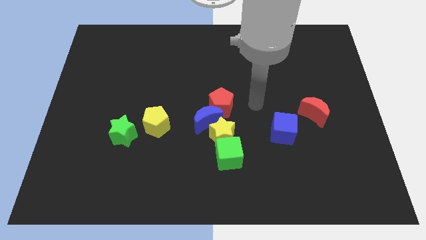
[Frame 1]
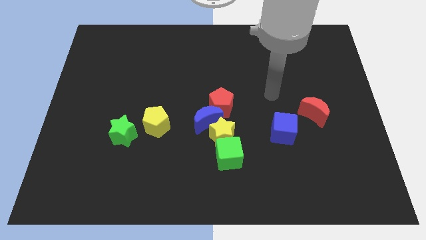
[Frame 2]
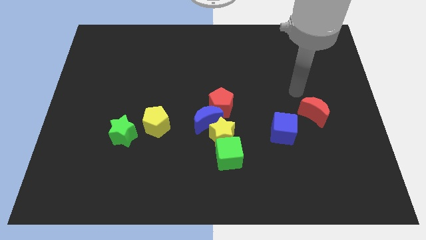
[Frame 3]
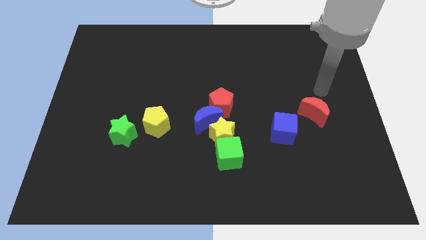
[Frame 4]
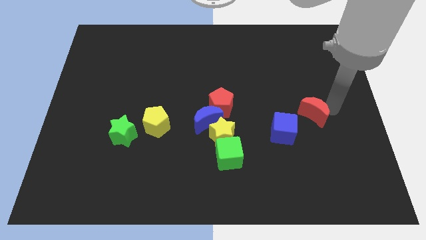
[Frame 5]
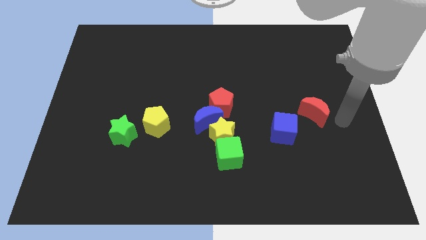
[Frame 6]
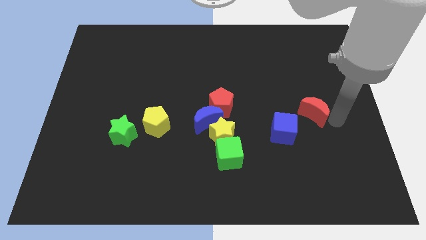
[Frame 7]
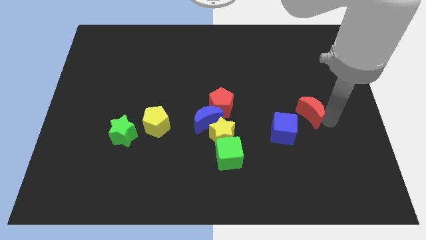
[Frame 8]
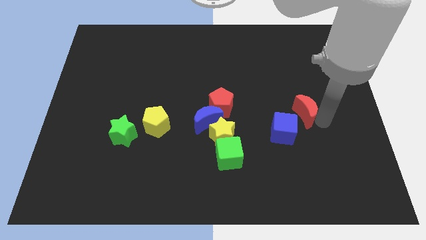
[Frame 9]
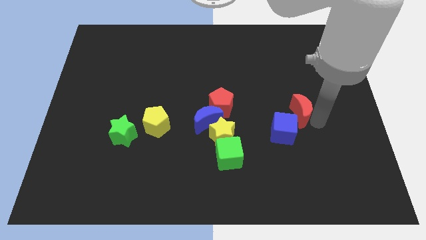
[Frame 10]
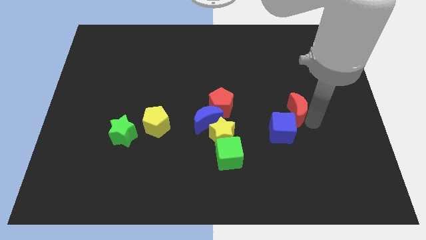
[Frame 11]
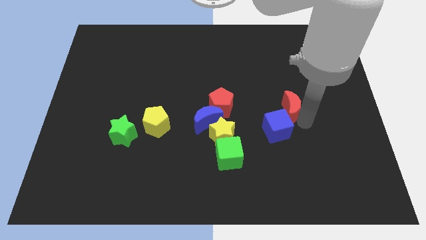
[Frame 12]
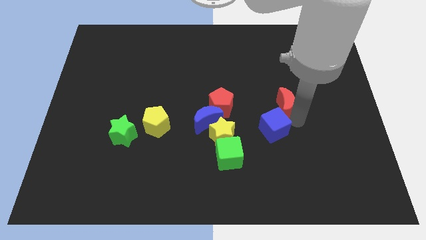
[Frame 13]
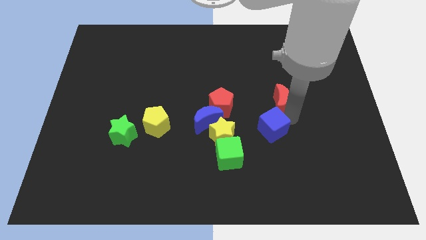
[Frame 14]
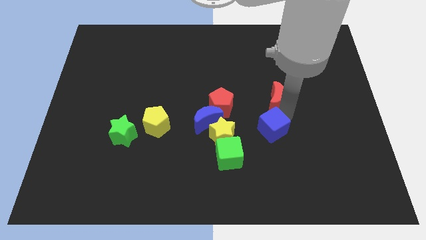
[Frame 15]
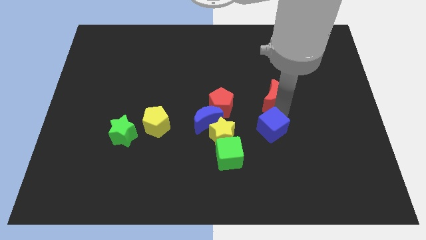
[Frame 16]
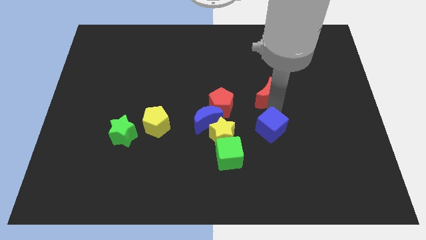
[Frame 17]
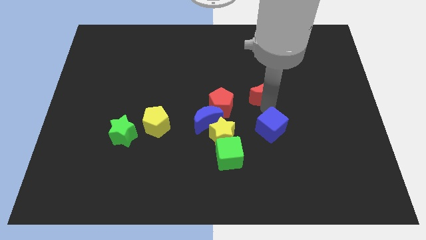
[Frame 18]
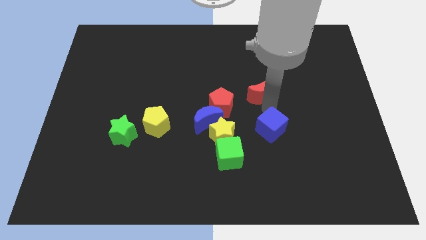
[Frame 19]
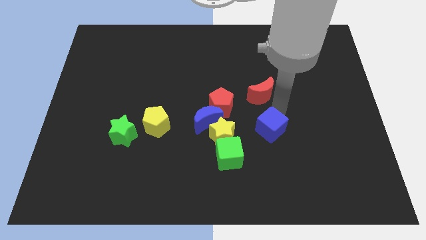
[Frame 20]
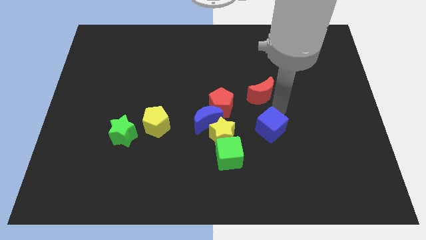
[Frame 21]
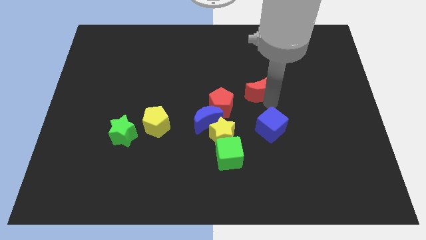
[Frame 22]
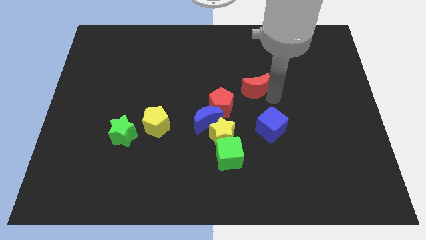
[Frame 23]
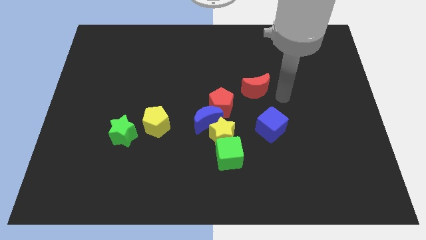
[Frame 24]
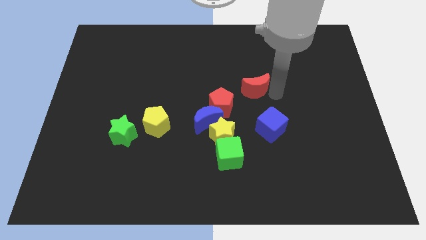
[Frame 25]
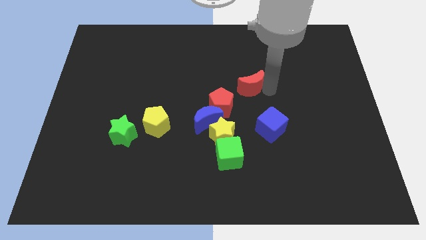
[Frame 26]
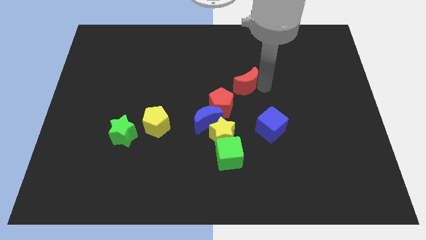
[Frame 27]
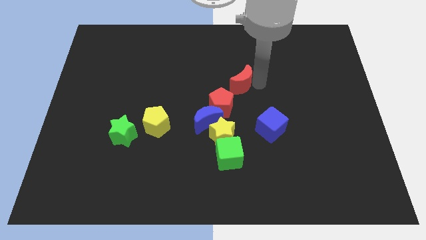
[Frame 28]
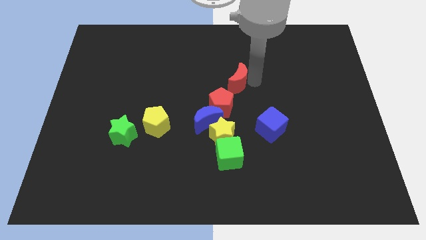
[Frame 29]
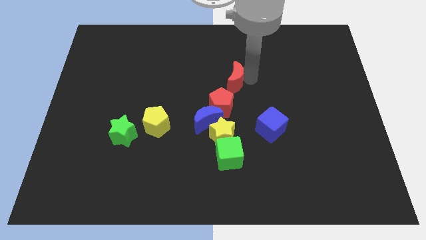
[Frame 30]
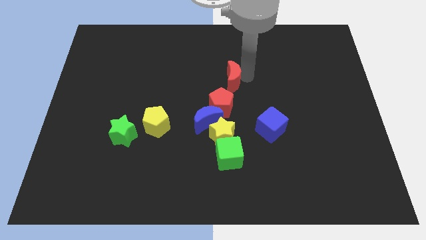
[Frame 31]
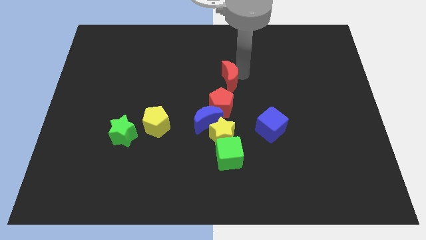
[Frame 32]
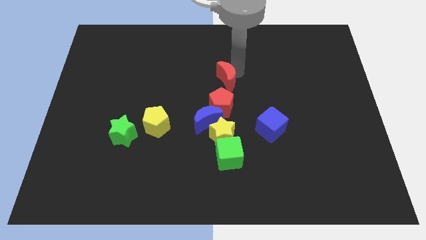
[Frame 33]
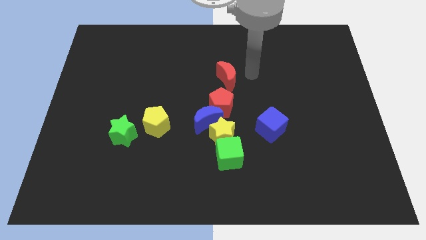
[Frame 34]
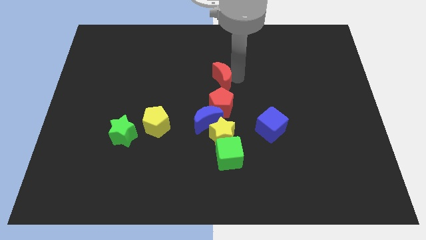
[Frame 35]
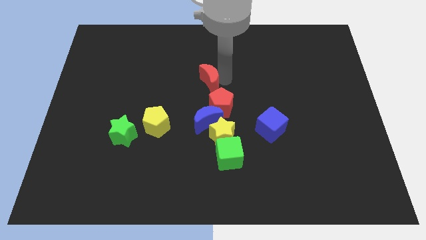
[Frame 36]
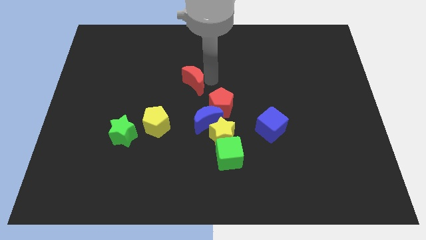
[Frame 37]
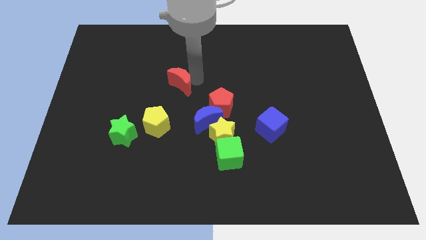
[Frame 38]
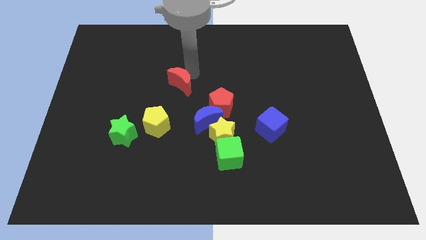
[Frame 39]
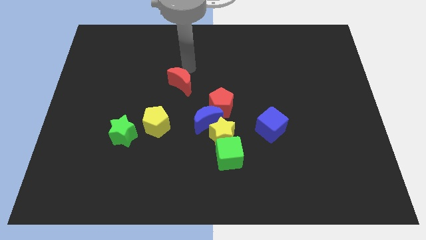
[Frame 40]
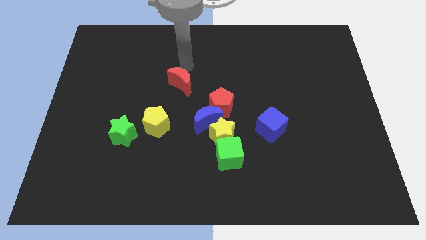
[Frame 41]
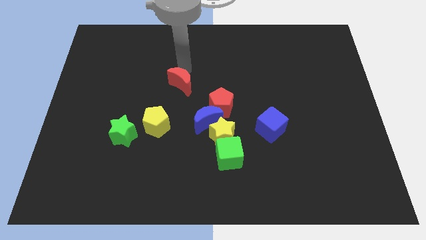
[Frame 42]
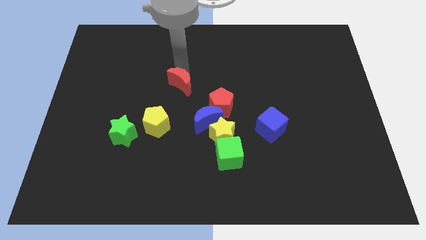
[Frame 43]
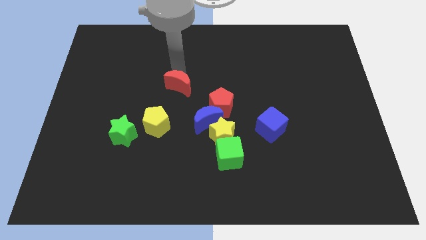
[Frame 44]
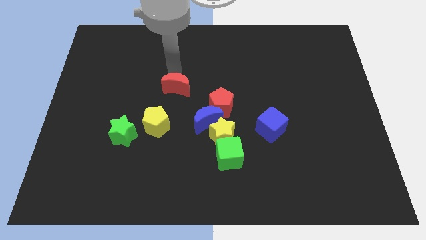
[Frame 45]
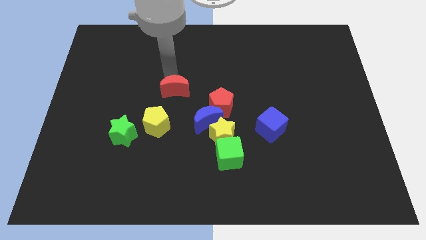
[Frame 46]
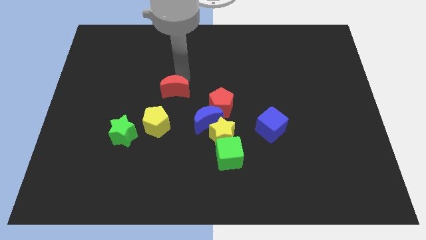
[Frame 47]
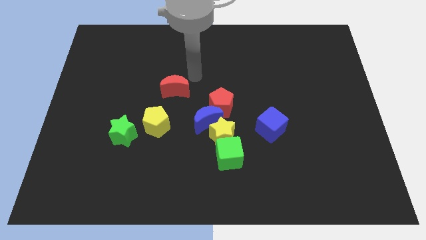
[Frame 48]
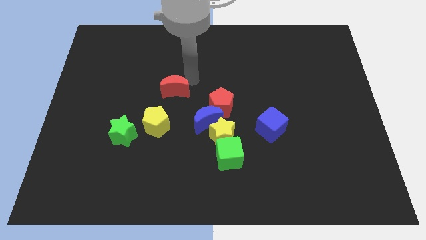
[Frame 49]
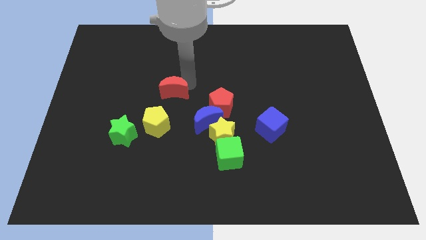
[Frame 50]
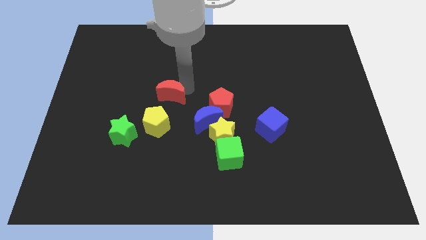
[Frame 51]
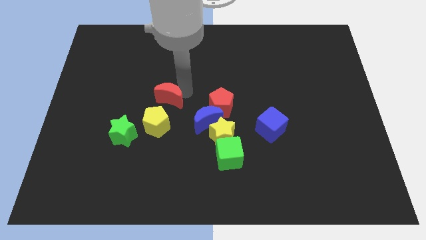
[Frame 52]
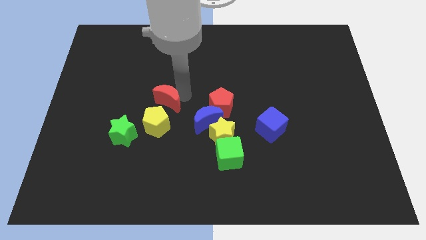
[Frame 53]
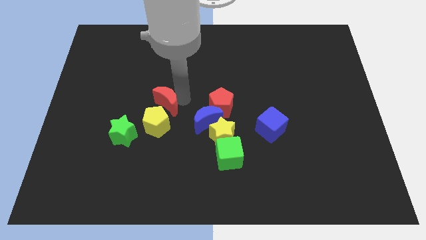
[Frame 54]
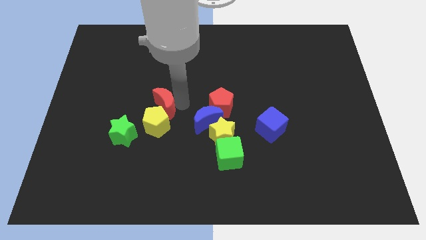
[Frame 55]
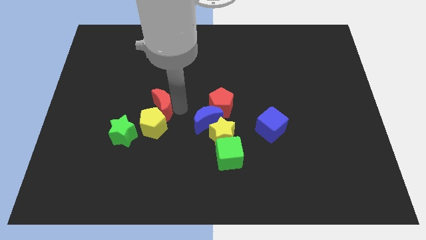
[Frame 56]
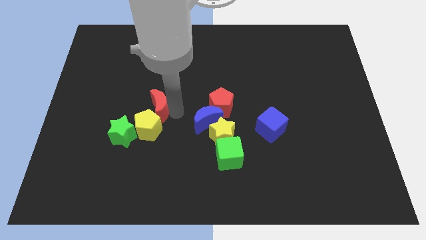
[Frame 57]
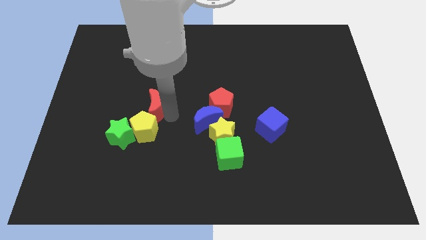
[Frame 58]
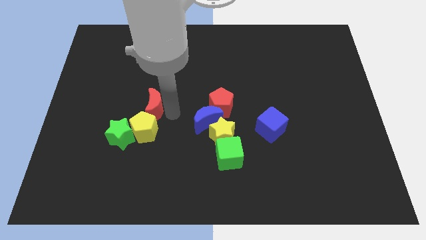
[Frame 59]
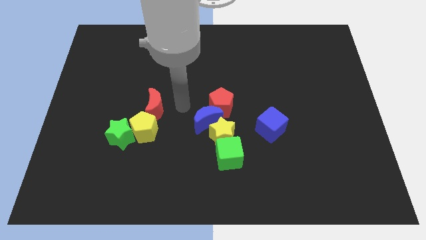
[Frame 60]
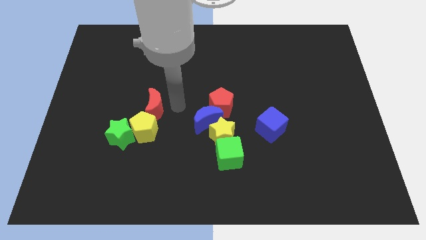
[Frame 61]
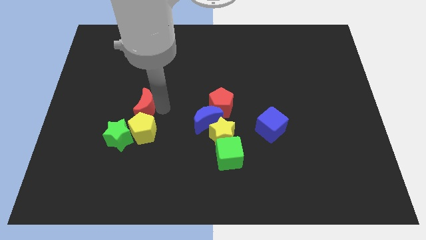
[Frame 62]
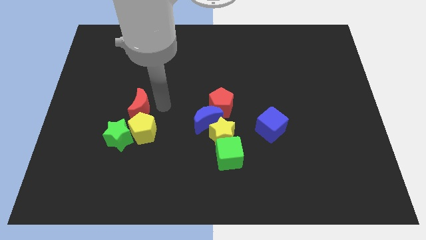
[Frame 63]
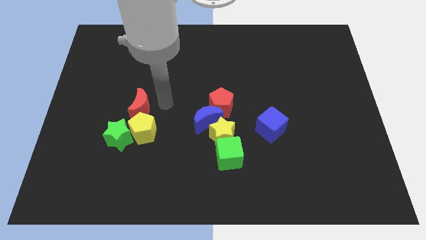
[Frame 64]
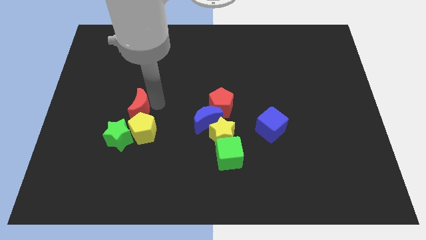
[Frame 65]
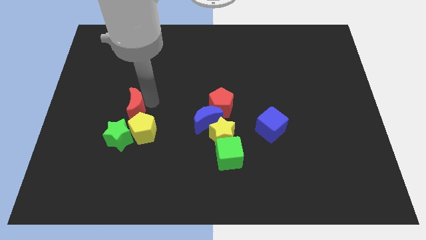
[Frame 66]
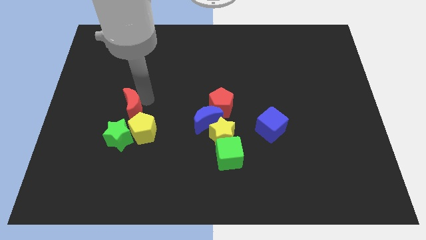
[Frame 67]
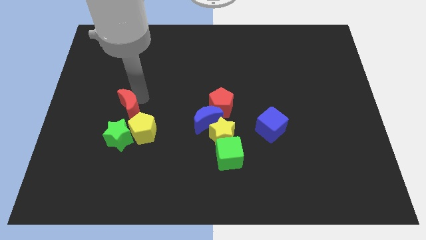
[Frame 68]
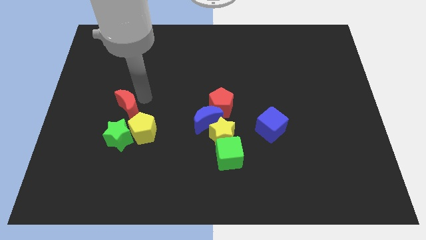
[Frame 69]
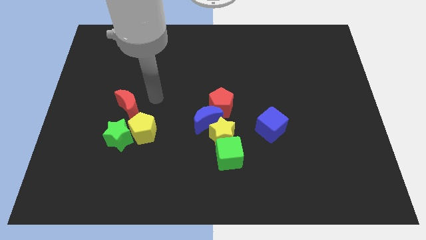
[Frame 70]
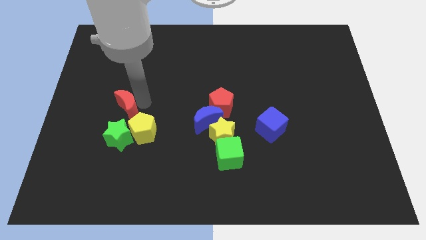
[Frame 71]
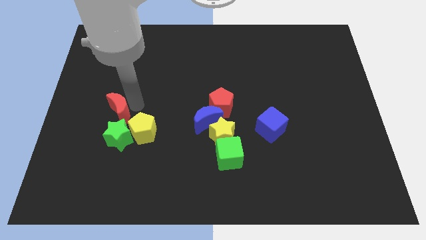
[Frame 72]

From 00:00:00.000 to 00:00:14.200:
move the red moon to the top left side of the green star

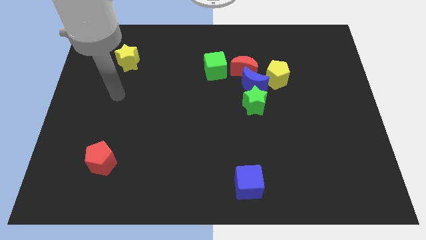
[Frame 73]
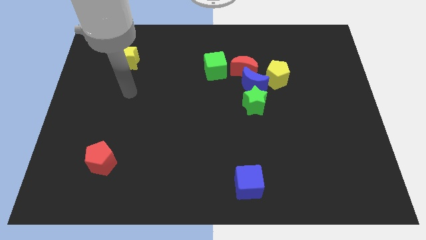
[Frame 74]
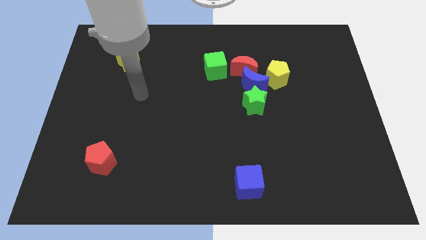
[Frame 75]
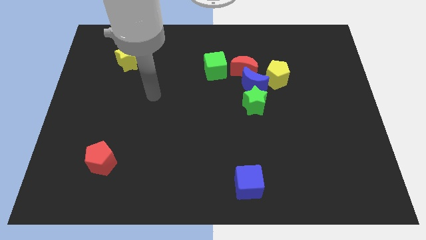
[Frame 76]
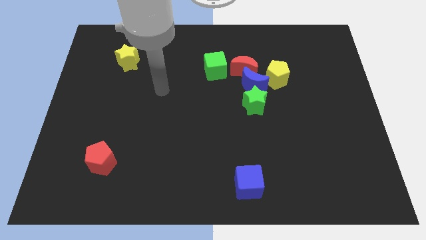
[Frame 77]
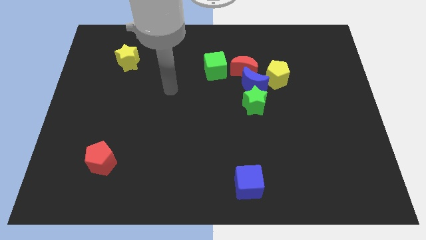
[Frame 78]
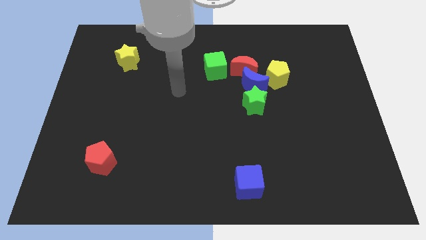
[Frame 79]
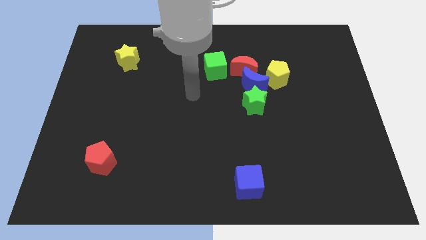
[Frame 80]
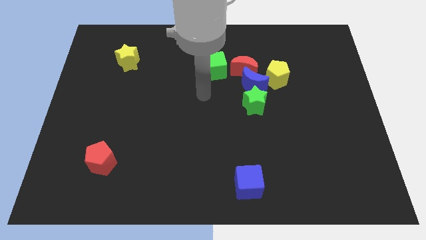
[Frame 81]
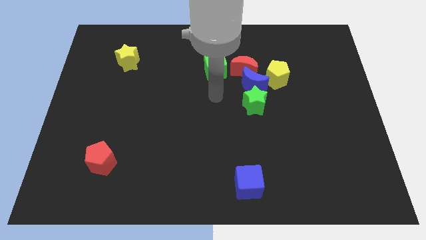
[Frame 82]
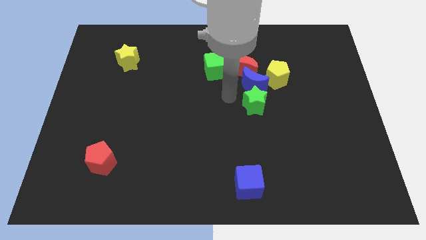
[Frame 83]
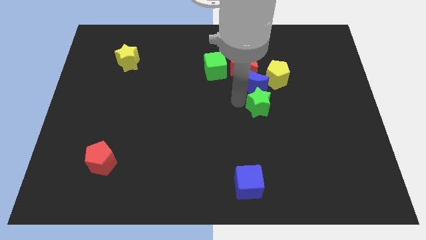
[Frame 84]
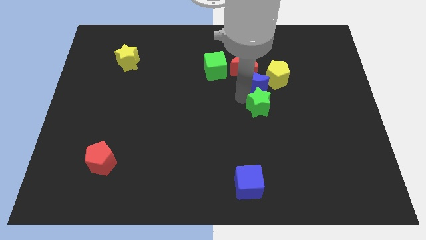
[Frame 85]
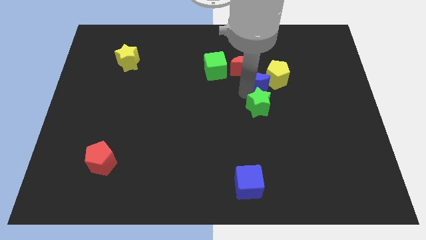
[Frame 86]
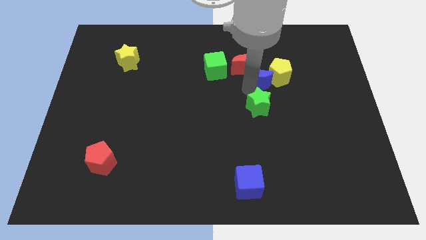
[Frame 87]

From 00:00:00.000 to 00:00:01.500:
move the blue moon to the right of the green cube
